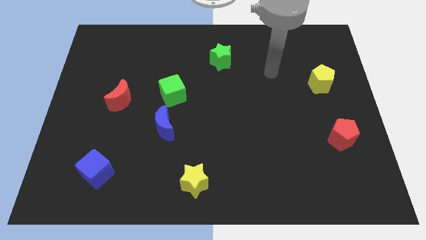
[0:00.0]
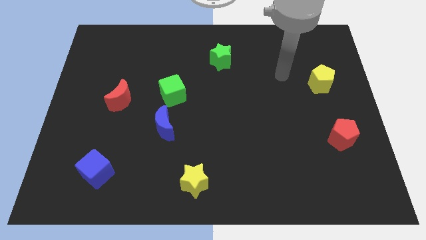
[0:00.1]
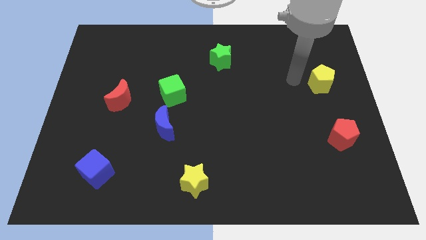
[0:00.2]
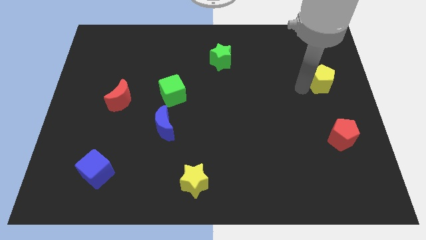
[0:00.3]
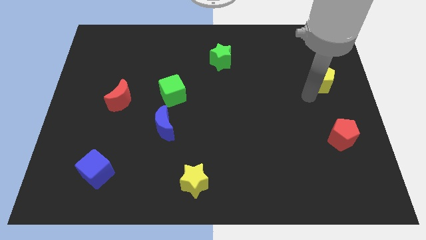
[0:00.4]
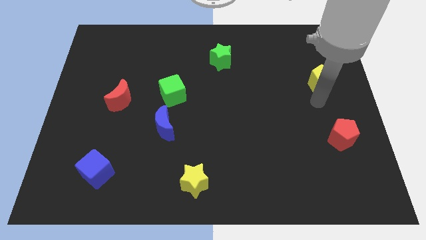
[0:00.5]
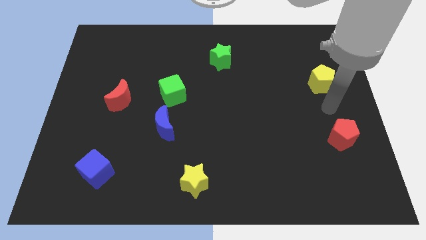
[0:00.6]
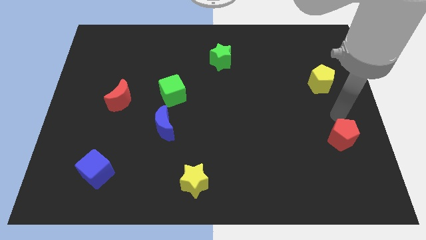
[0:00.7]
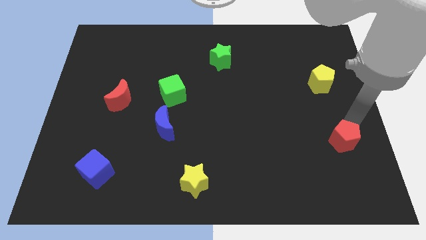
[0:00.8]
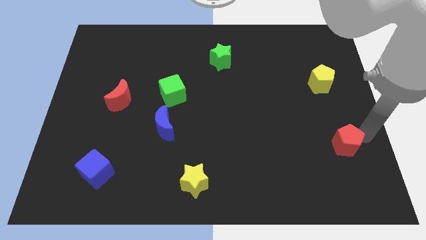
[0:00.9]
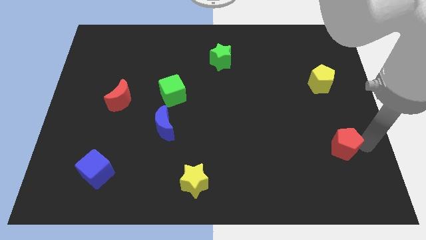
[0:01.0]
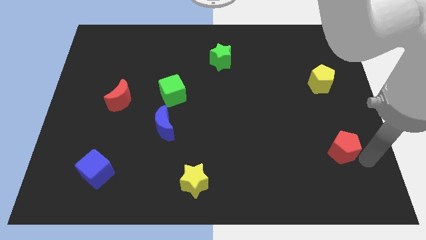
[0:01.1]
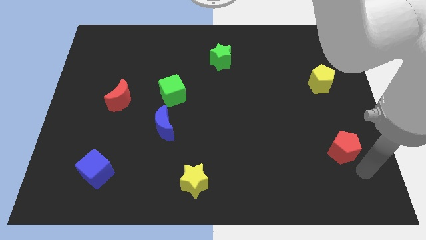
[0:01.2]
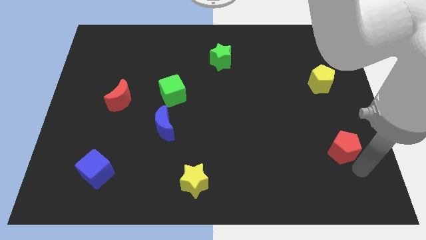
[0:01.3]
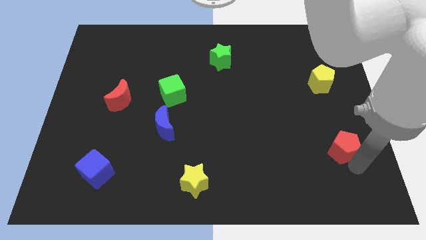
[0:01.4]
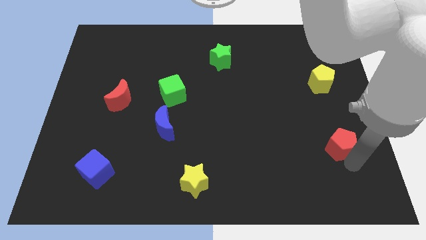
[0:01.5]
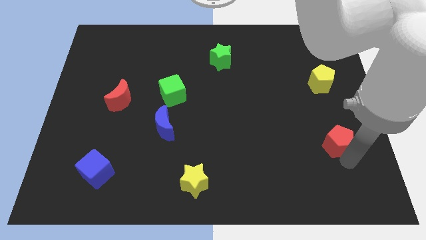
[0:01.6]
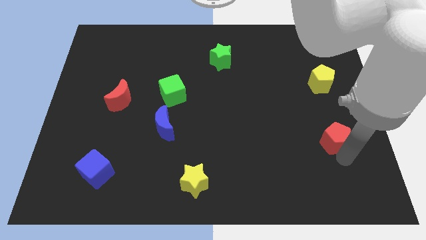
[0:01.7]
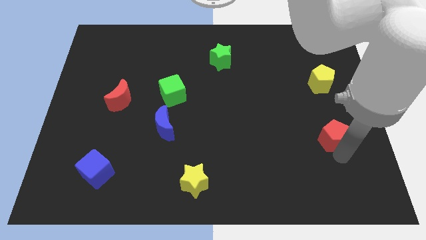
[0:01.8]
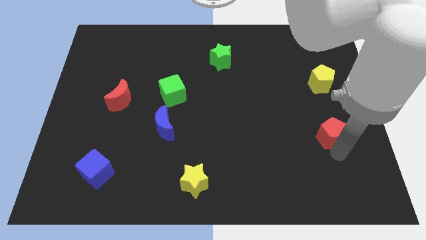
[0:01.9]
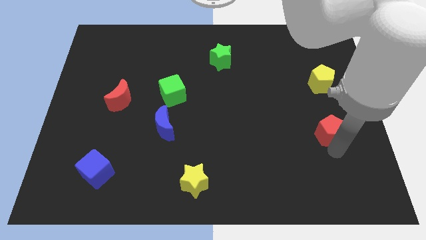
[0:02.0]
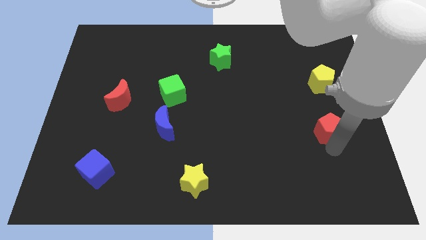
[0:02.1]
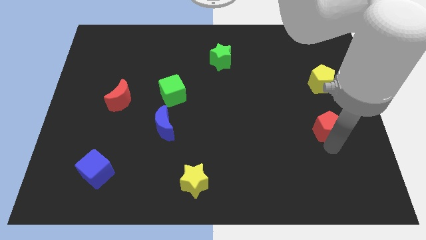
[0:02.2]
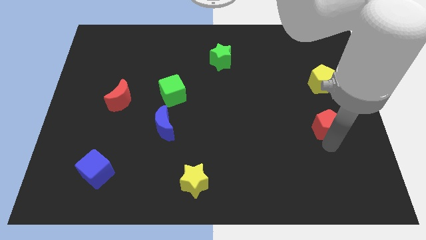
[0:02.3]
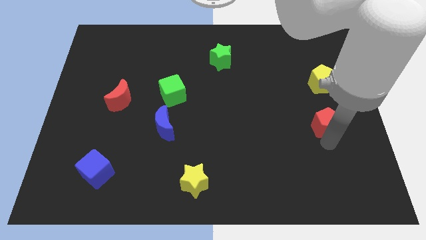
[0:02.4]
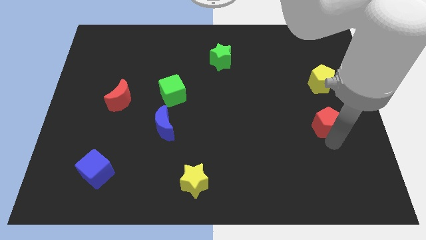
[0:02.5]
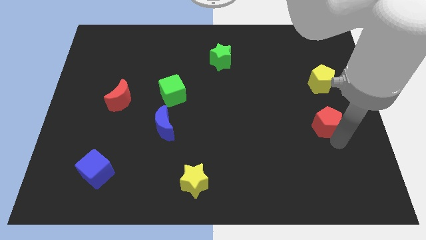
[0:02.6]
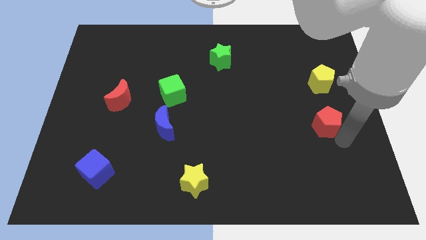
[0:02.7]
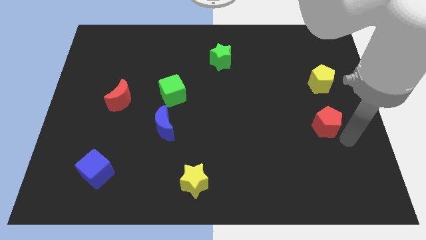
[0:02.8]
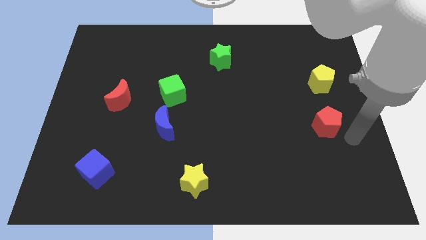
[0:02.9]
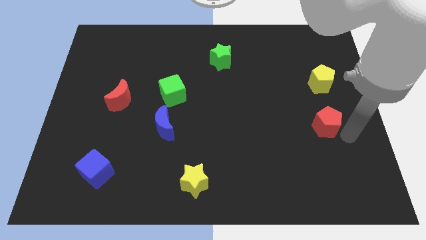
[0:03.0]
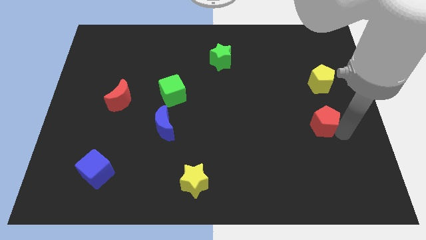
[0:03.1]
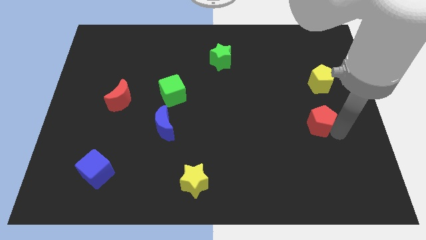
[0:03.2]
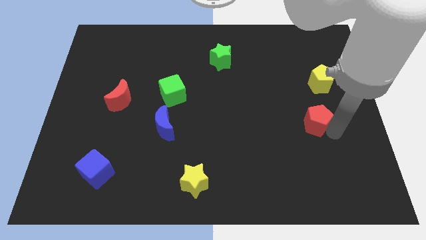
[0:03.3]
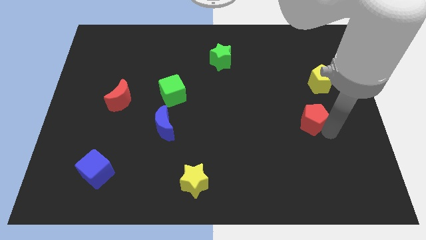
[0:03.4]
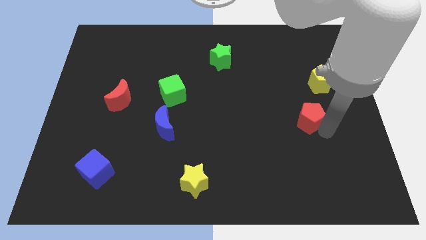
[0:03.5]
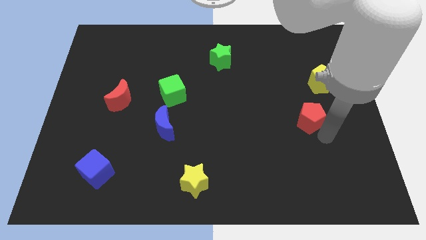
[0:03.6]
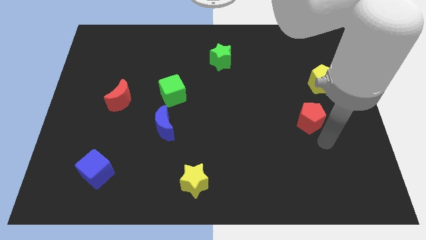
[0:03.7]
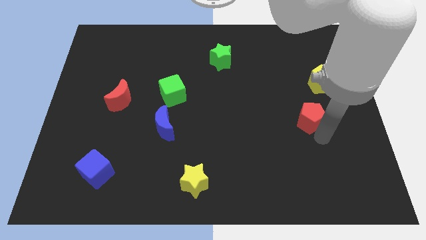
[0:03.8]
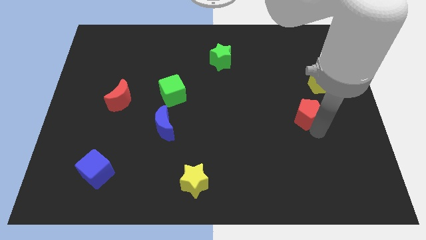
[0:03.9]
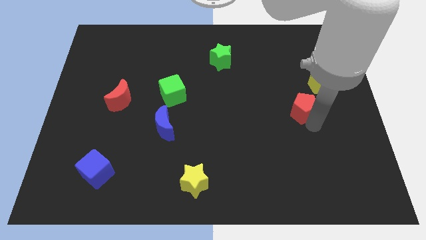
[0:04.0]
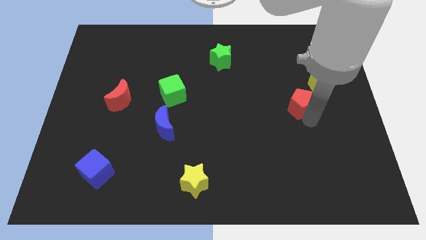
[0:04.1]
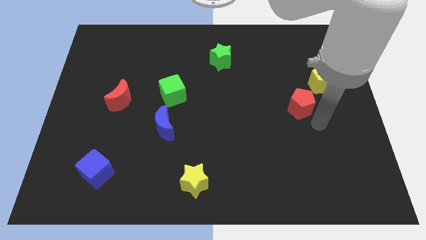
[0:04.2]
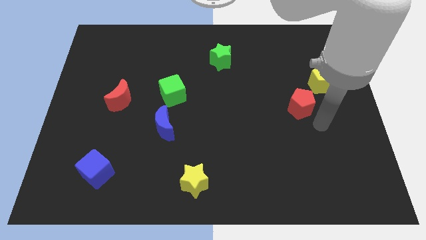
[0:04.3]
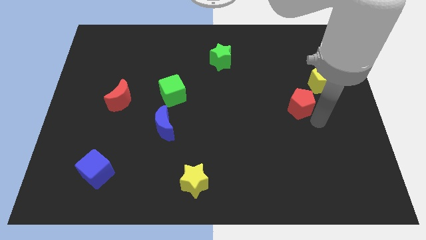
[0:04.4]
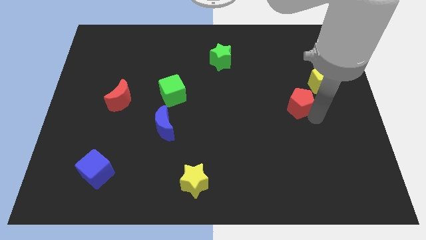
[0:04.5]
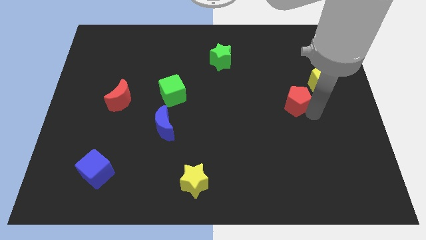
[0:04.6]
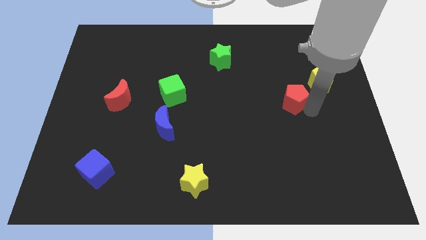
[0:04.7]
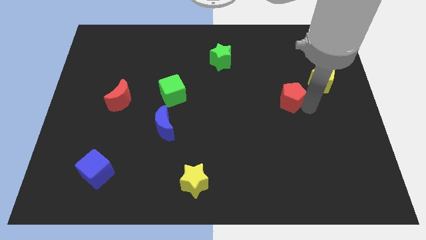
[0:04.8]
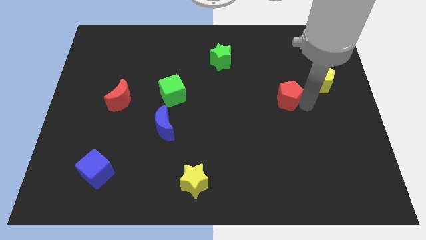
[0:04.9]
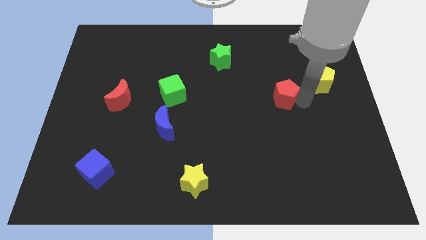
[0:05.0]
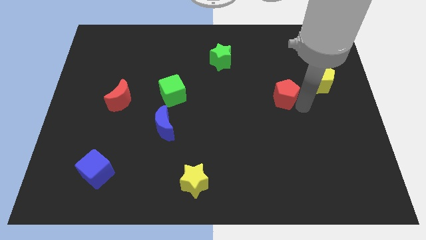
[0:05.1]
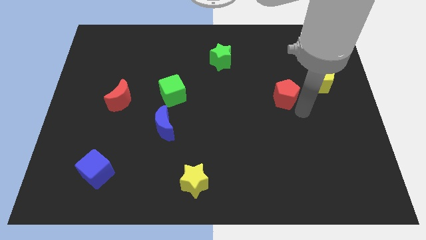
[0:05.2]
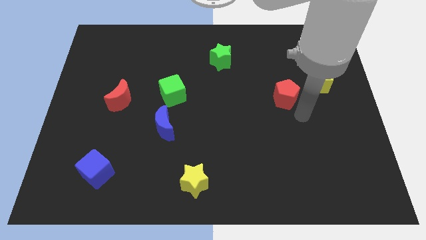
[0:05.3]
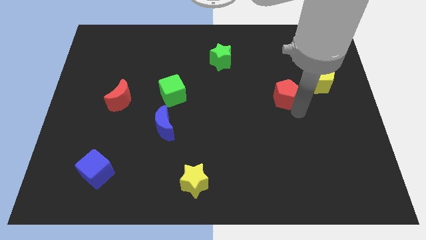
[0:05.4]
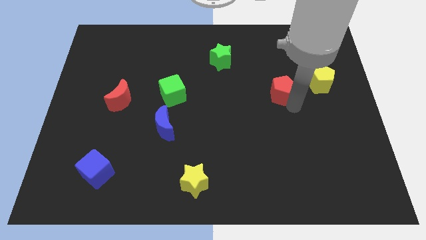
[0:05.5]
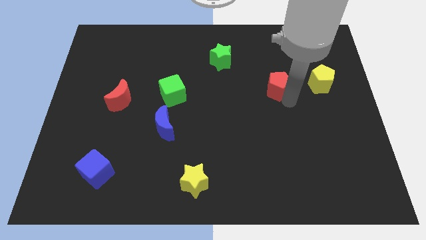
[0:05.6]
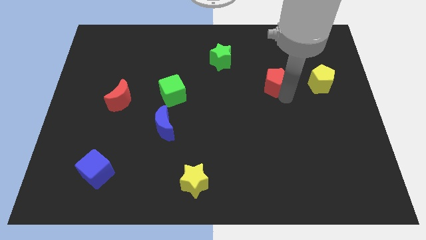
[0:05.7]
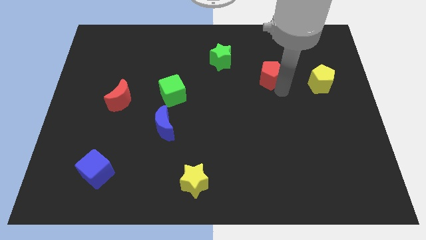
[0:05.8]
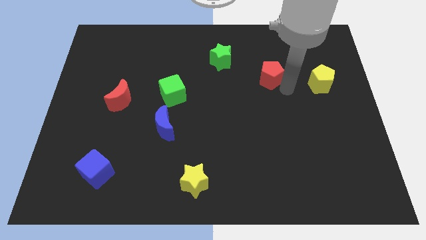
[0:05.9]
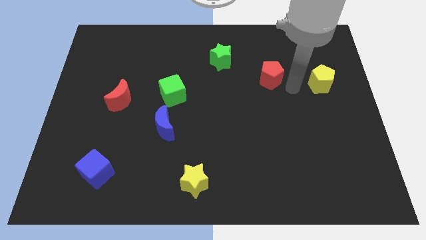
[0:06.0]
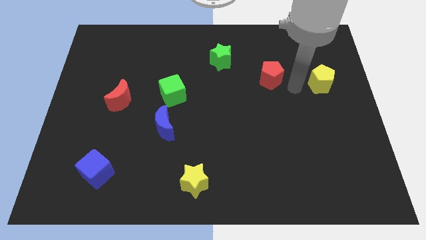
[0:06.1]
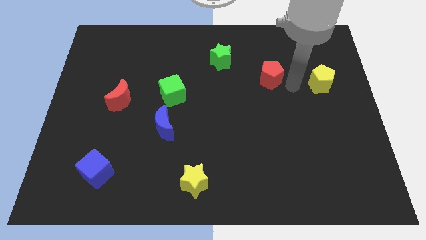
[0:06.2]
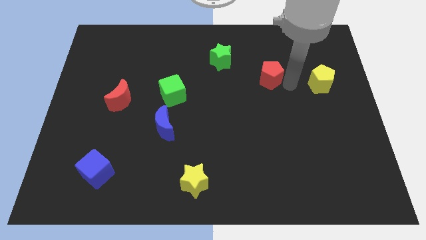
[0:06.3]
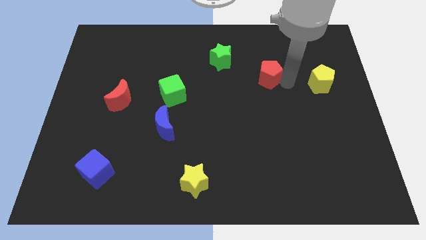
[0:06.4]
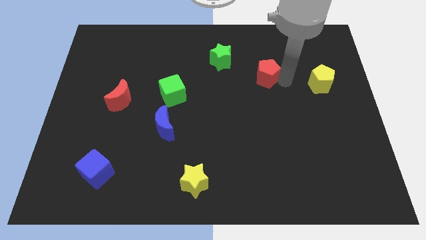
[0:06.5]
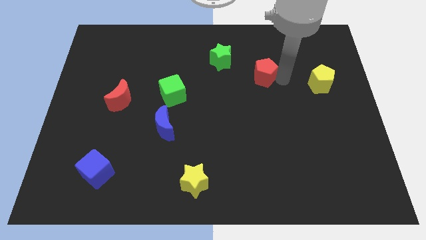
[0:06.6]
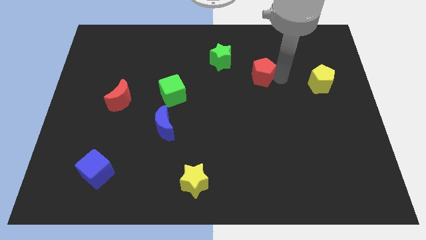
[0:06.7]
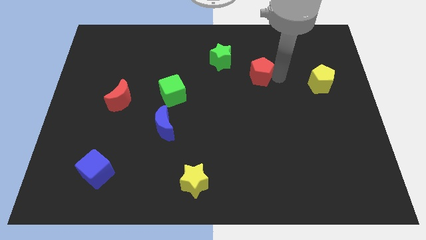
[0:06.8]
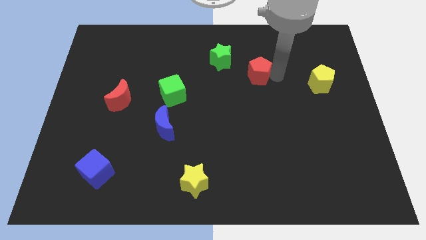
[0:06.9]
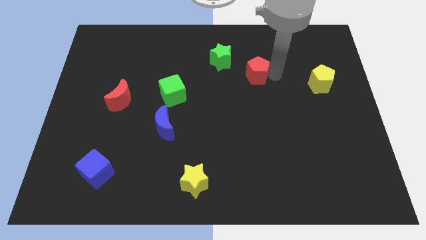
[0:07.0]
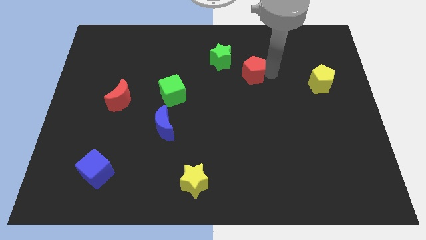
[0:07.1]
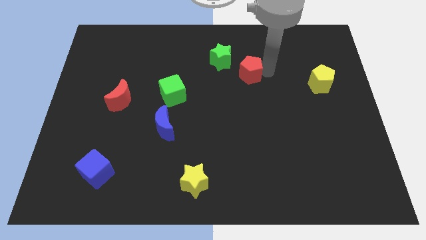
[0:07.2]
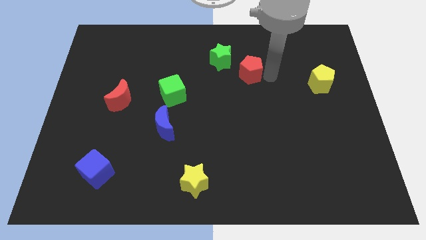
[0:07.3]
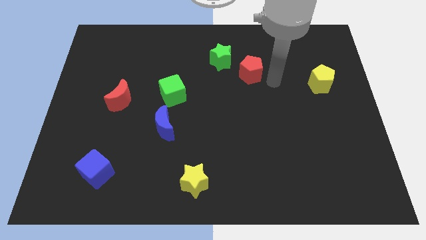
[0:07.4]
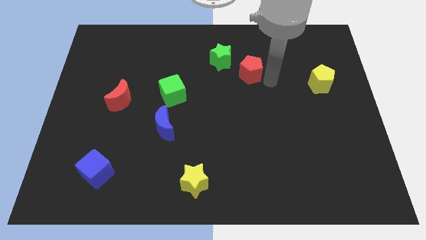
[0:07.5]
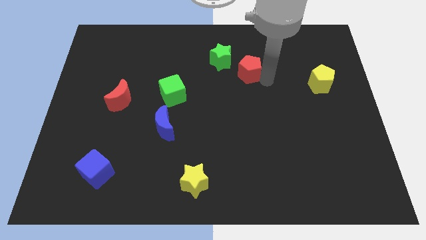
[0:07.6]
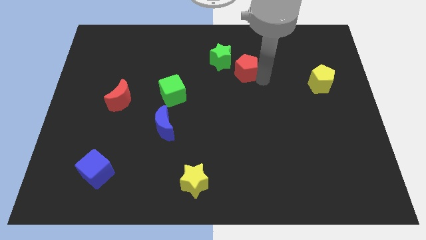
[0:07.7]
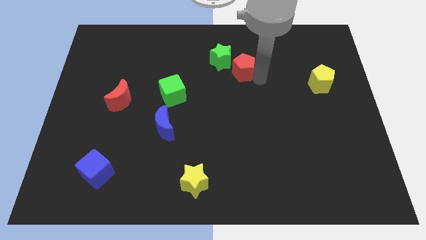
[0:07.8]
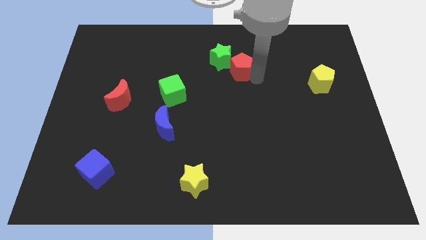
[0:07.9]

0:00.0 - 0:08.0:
move the red pentagon towards the green star
